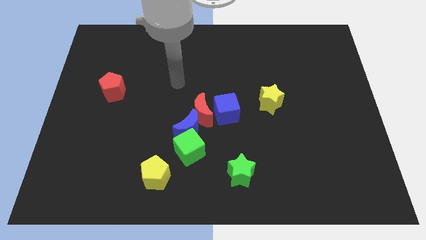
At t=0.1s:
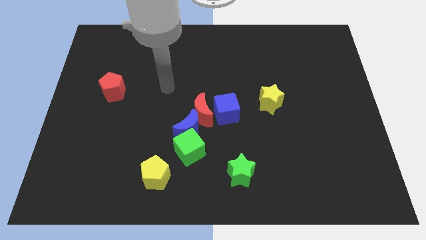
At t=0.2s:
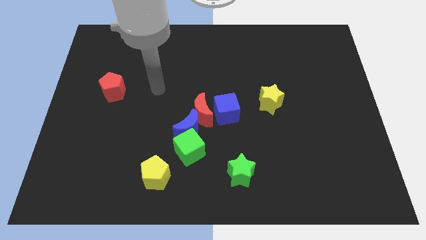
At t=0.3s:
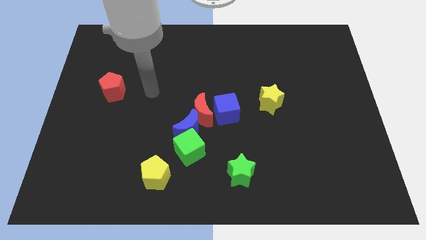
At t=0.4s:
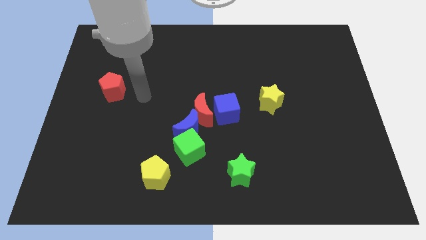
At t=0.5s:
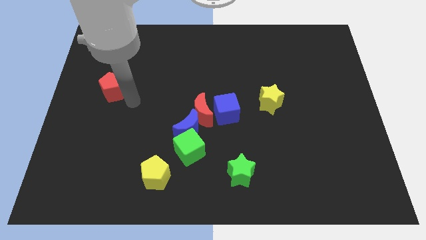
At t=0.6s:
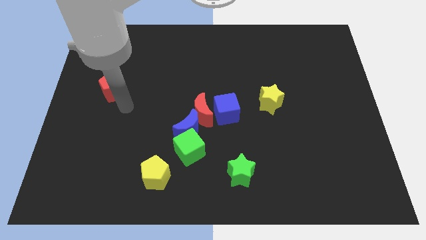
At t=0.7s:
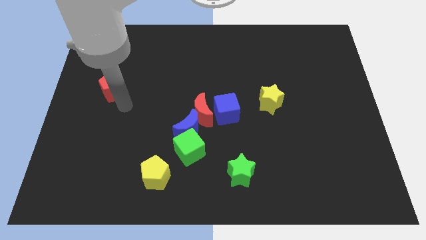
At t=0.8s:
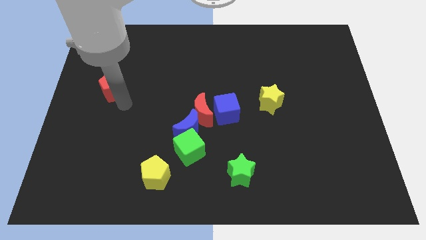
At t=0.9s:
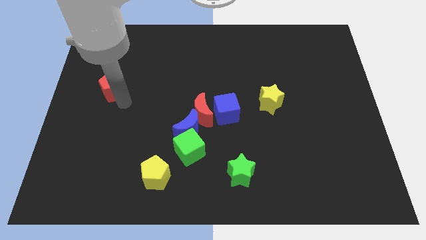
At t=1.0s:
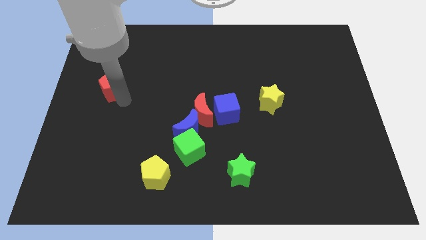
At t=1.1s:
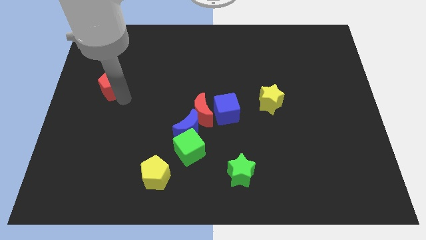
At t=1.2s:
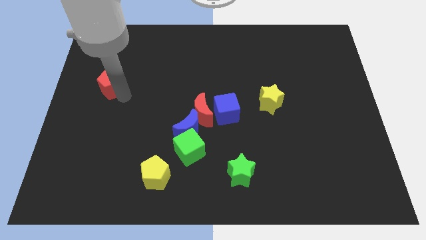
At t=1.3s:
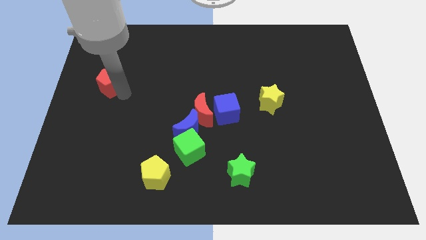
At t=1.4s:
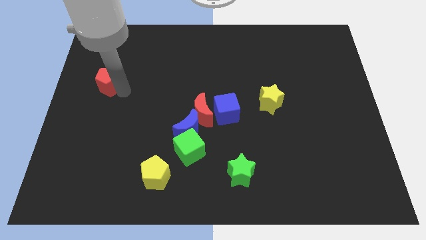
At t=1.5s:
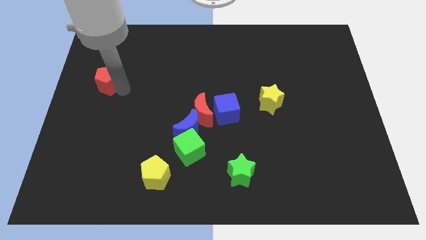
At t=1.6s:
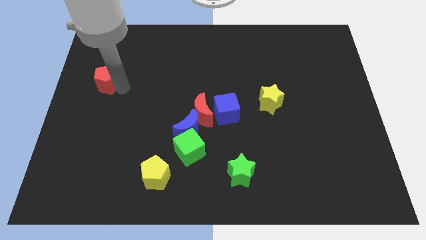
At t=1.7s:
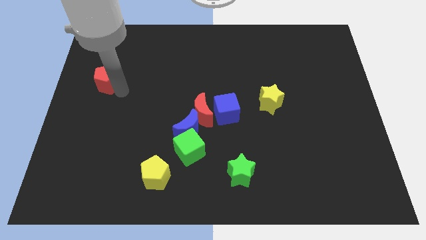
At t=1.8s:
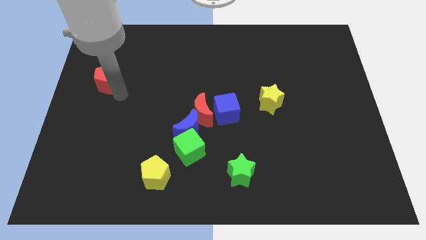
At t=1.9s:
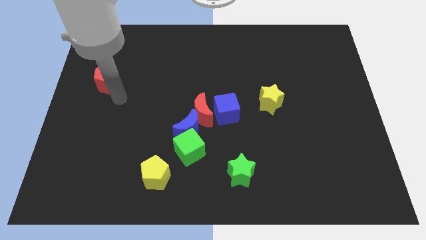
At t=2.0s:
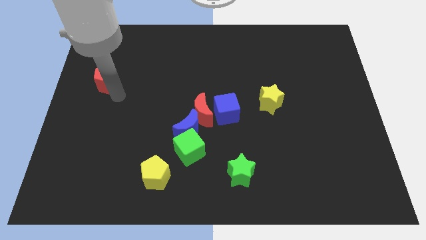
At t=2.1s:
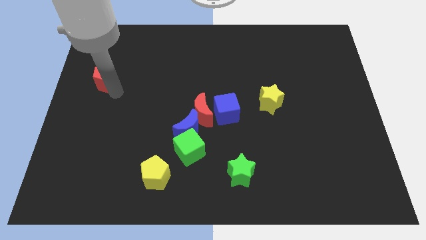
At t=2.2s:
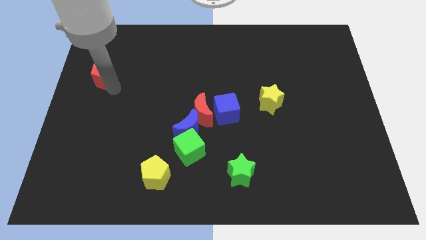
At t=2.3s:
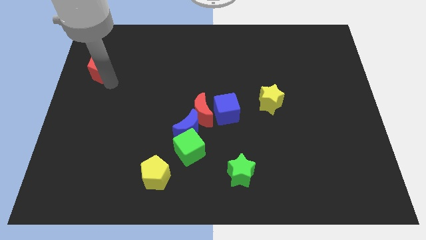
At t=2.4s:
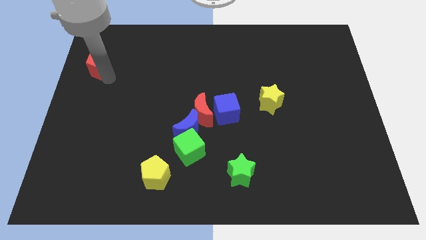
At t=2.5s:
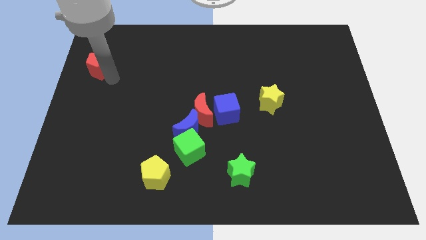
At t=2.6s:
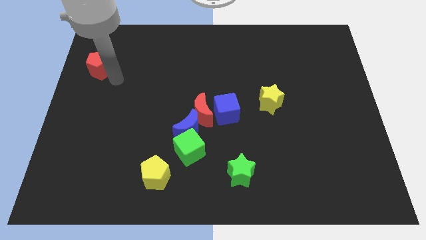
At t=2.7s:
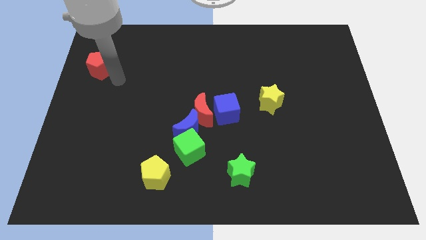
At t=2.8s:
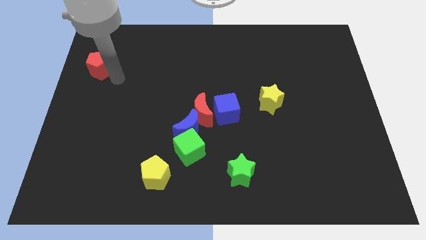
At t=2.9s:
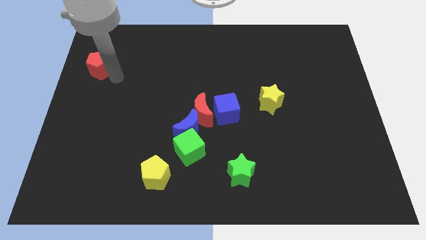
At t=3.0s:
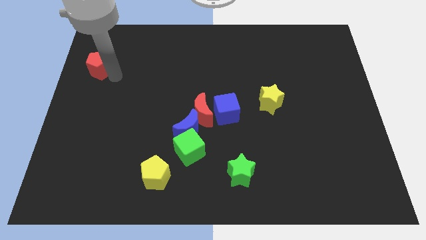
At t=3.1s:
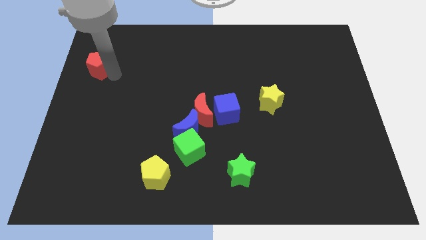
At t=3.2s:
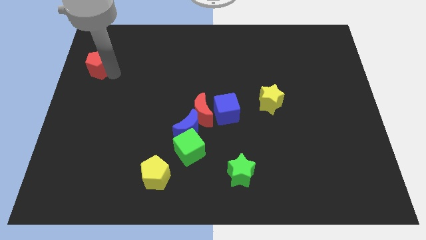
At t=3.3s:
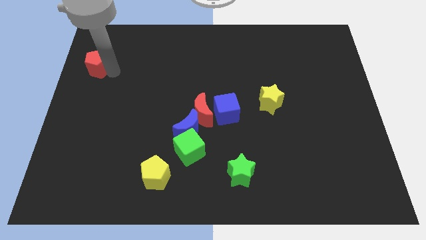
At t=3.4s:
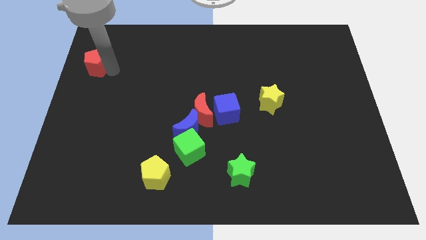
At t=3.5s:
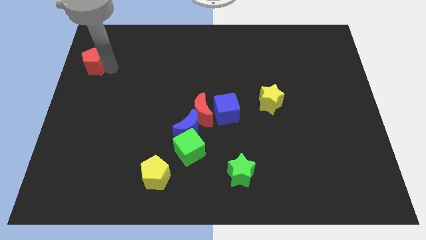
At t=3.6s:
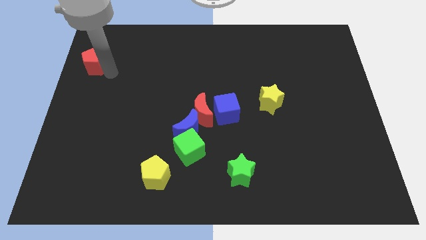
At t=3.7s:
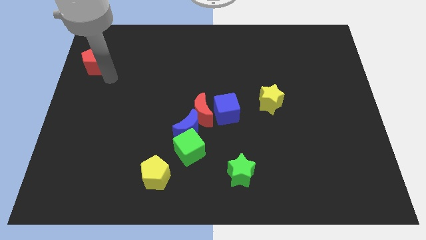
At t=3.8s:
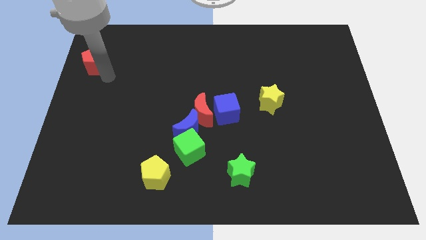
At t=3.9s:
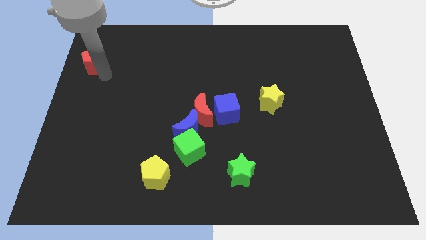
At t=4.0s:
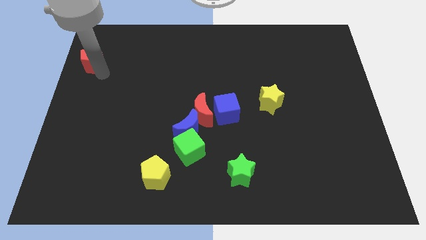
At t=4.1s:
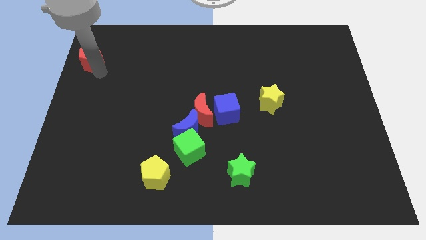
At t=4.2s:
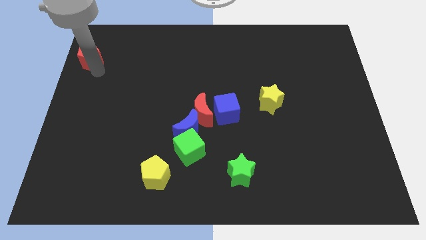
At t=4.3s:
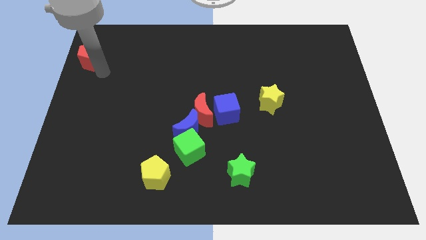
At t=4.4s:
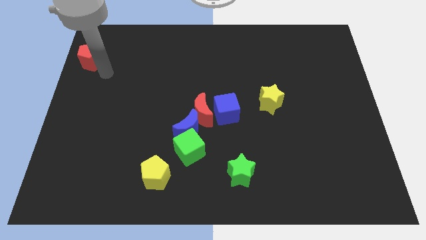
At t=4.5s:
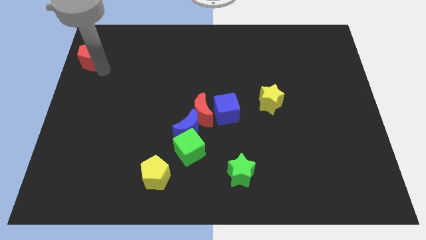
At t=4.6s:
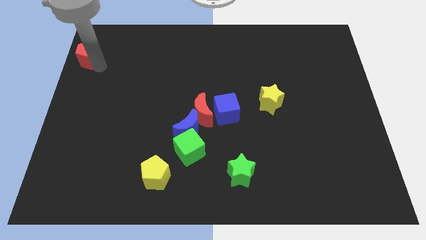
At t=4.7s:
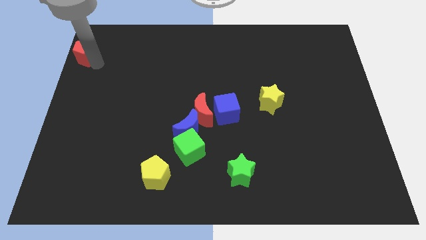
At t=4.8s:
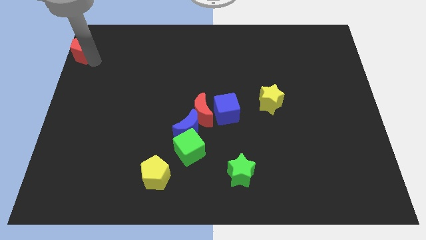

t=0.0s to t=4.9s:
push the red pentagon to the top left

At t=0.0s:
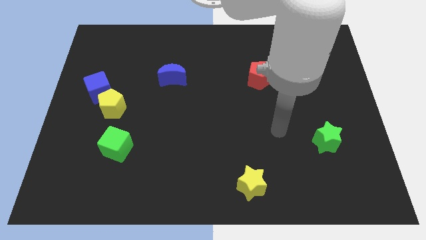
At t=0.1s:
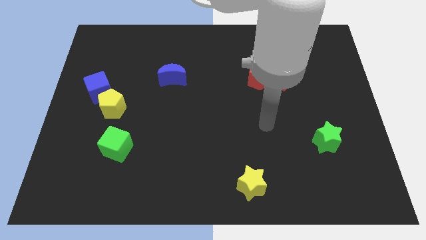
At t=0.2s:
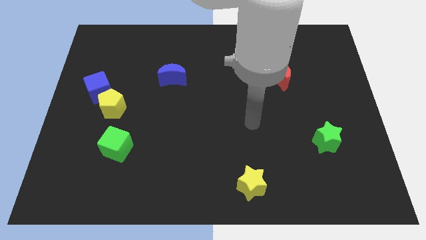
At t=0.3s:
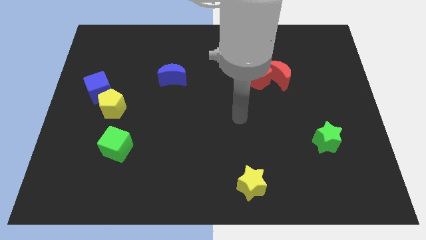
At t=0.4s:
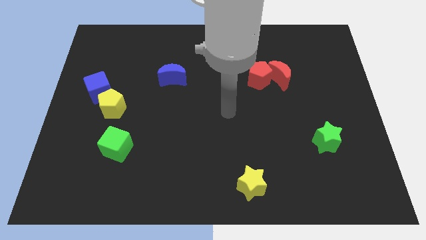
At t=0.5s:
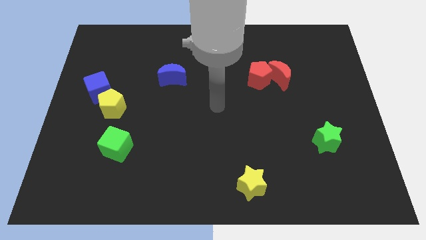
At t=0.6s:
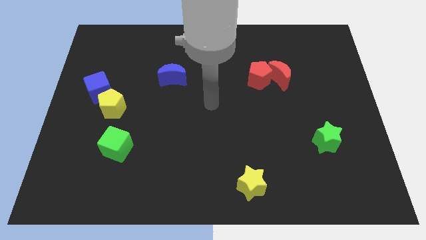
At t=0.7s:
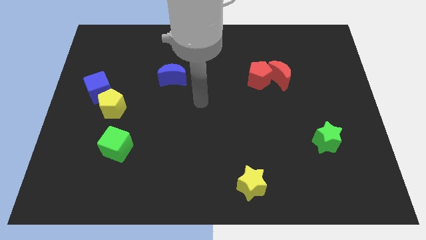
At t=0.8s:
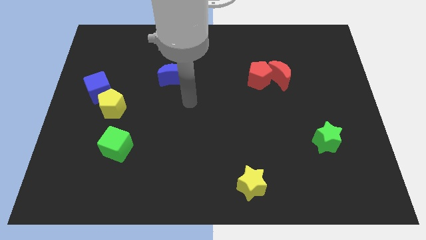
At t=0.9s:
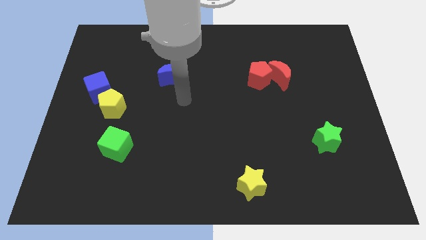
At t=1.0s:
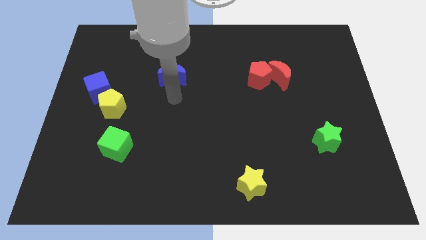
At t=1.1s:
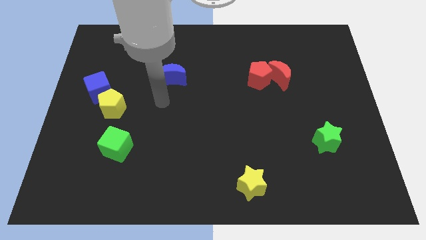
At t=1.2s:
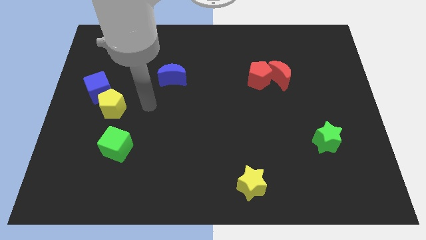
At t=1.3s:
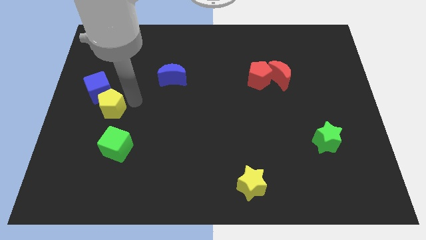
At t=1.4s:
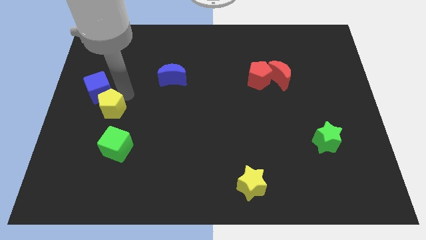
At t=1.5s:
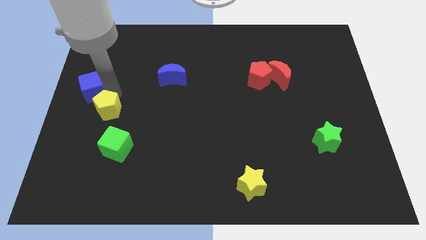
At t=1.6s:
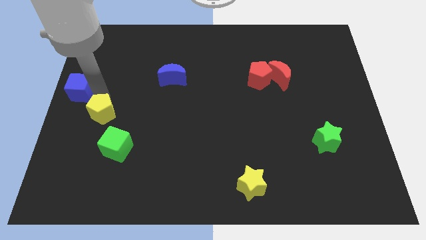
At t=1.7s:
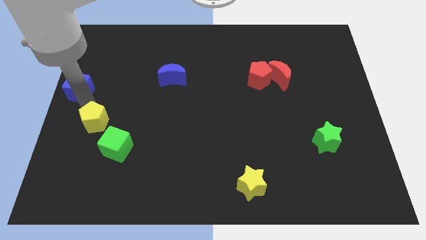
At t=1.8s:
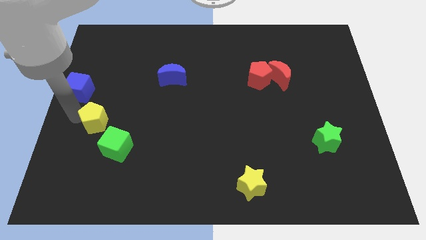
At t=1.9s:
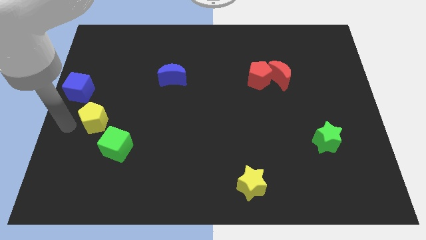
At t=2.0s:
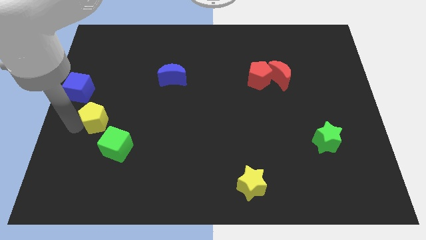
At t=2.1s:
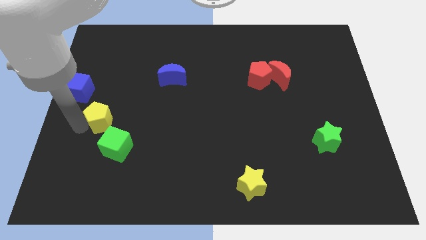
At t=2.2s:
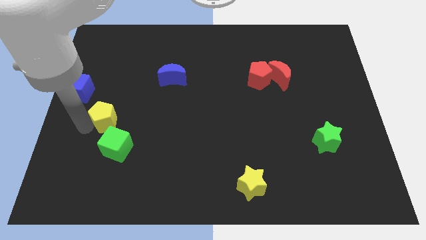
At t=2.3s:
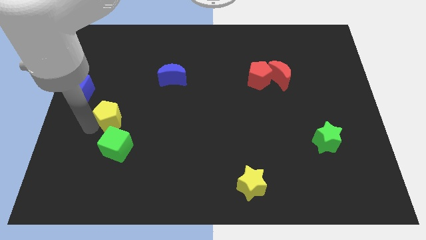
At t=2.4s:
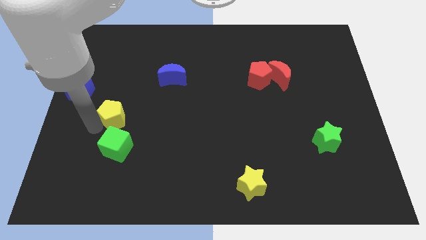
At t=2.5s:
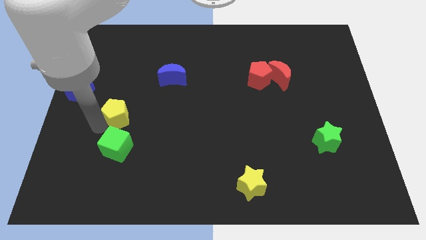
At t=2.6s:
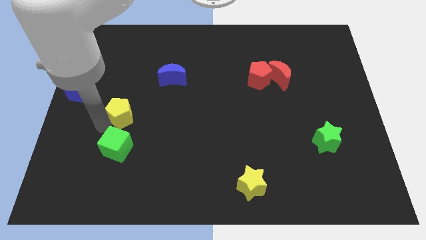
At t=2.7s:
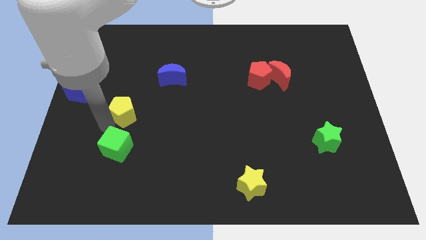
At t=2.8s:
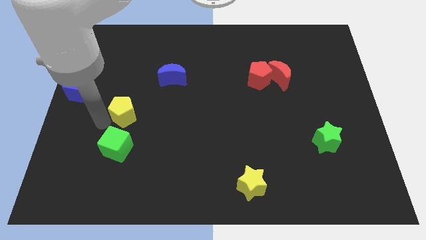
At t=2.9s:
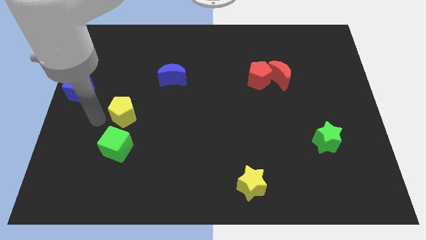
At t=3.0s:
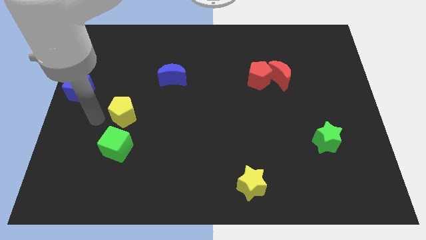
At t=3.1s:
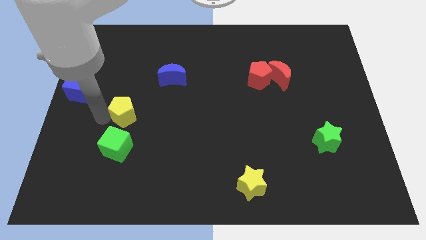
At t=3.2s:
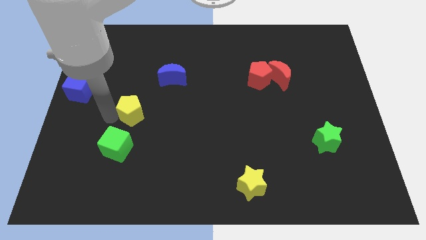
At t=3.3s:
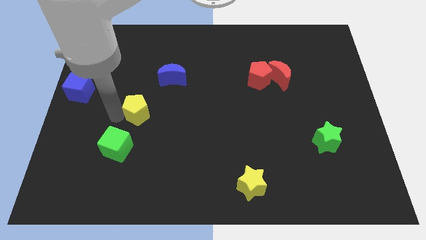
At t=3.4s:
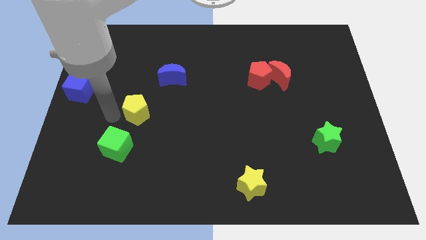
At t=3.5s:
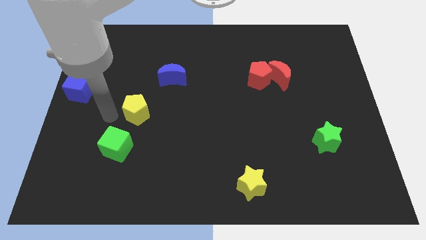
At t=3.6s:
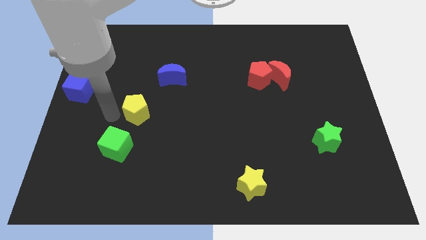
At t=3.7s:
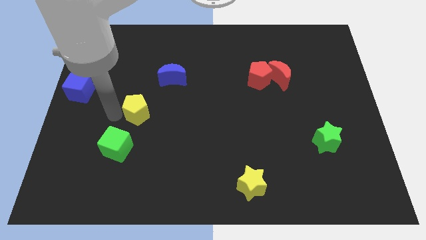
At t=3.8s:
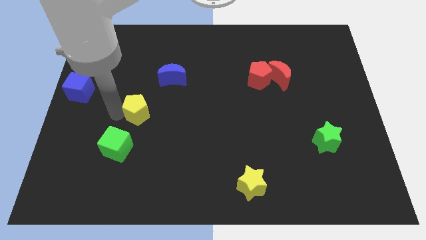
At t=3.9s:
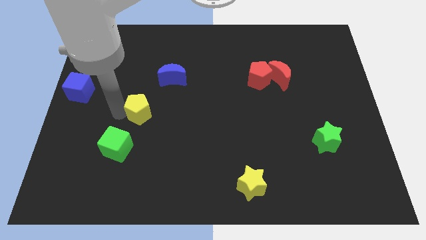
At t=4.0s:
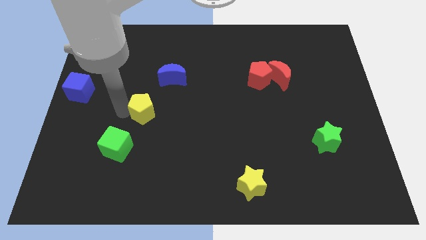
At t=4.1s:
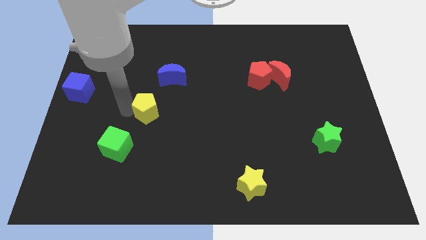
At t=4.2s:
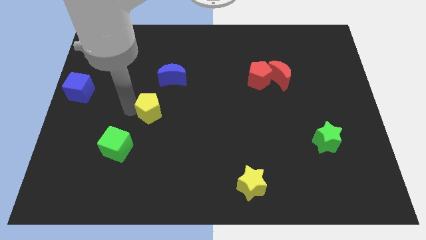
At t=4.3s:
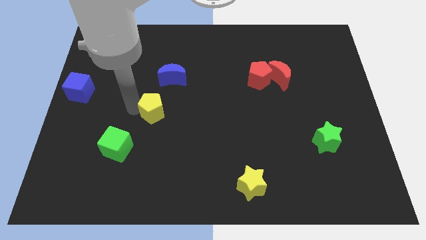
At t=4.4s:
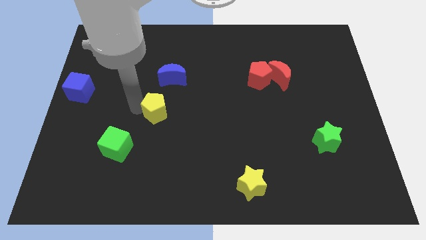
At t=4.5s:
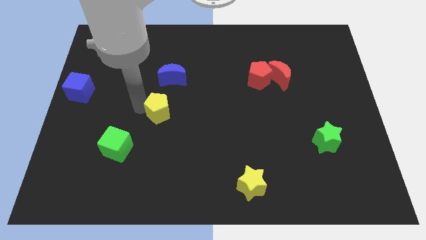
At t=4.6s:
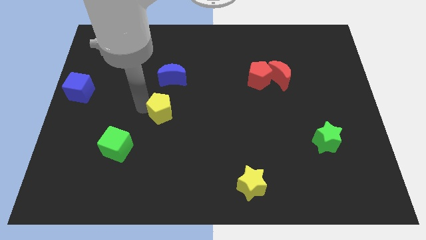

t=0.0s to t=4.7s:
put the yellow pentagon to the center
